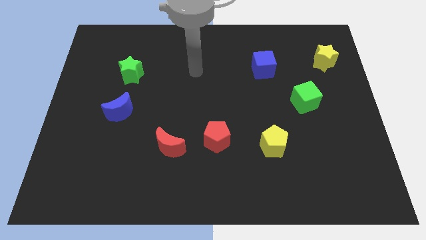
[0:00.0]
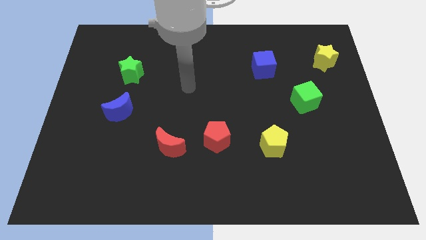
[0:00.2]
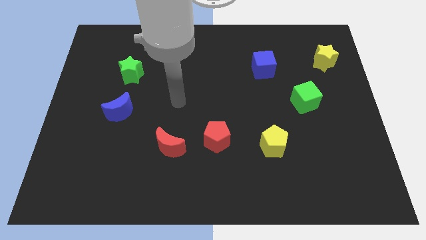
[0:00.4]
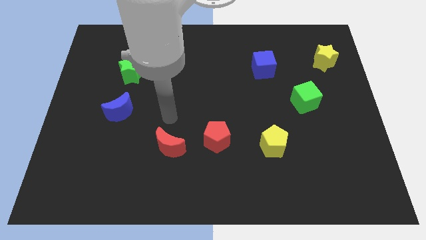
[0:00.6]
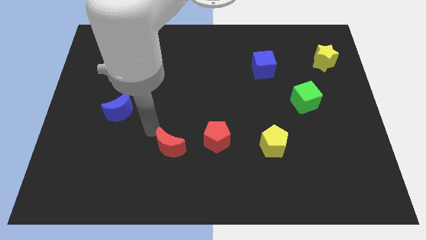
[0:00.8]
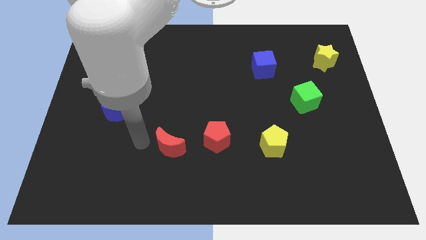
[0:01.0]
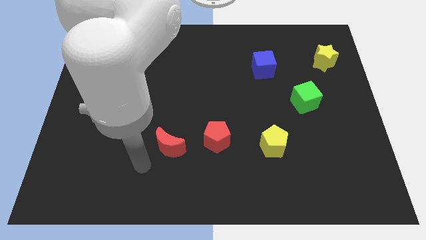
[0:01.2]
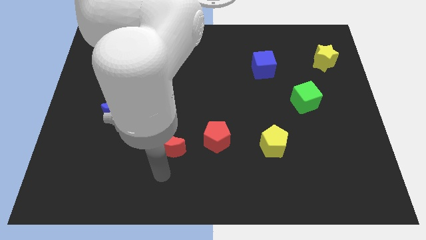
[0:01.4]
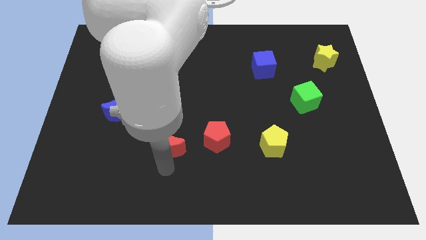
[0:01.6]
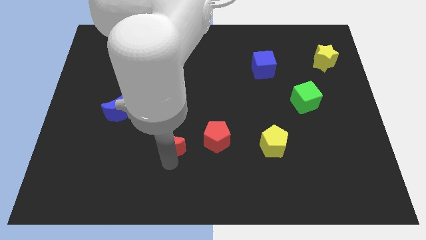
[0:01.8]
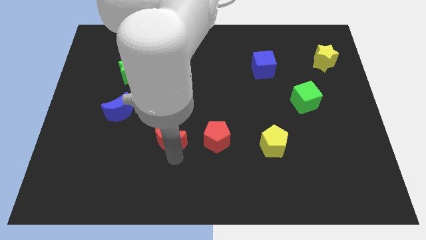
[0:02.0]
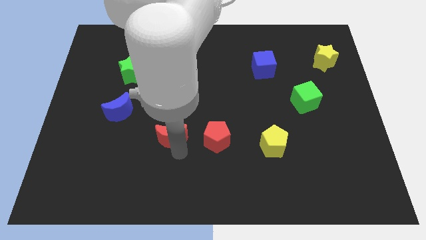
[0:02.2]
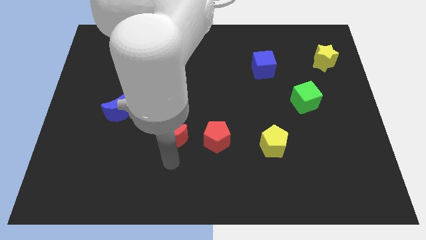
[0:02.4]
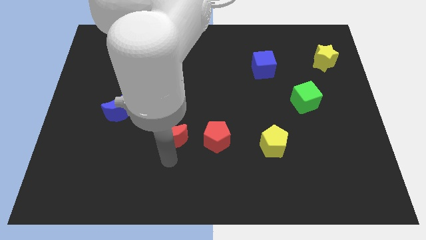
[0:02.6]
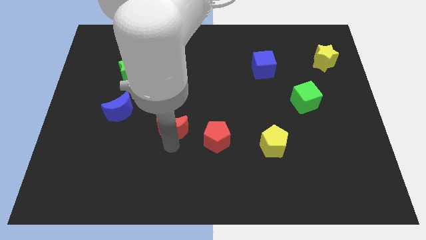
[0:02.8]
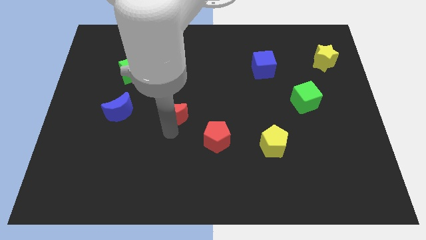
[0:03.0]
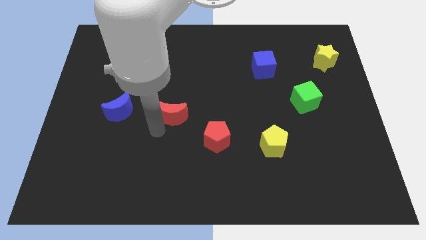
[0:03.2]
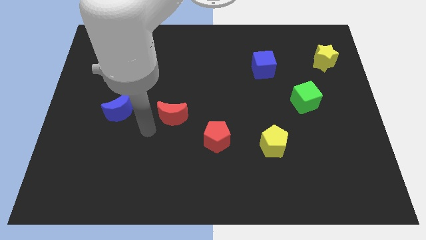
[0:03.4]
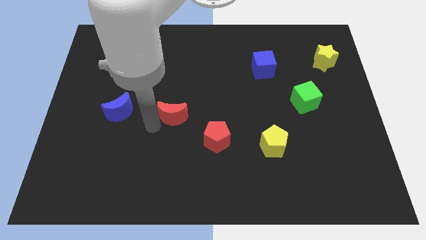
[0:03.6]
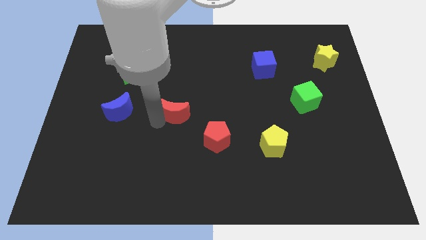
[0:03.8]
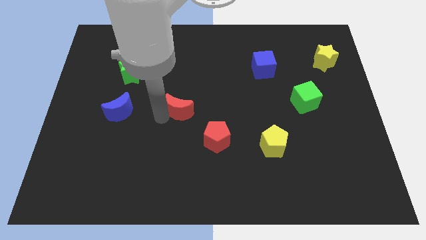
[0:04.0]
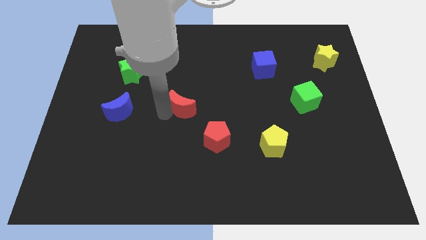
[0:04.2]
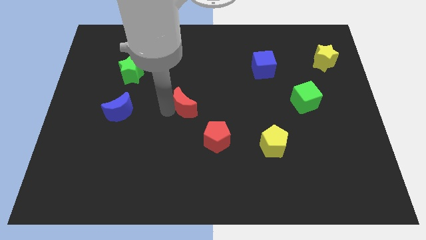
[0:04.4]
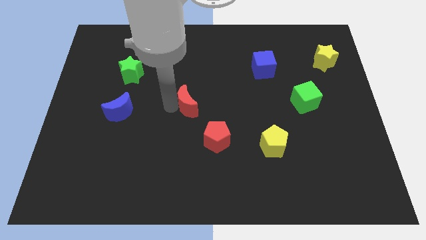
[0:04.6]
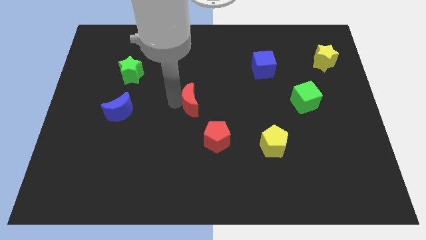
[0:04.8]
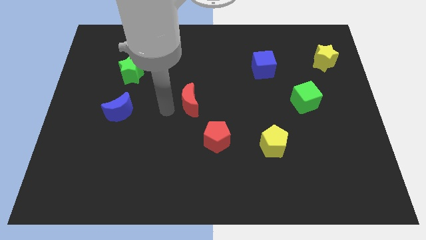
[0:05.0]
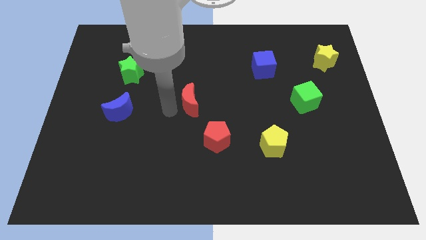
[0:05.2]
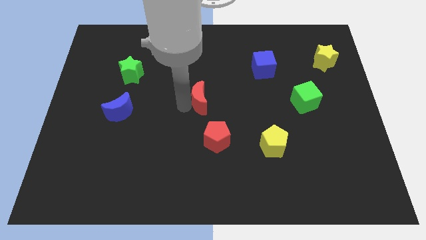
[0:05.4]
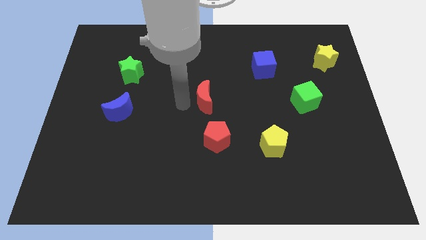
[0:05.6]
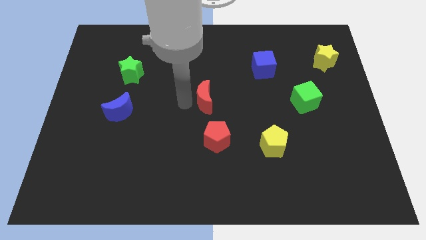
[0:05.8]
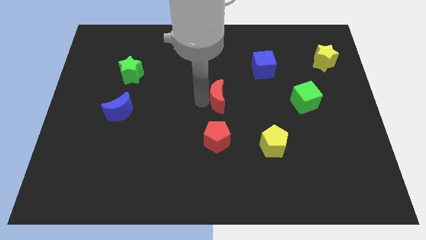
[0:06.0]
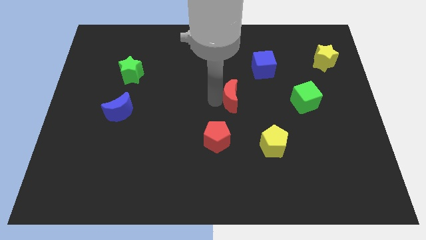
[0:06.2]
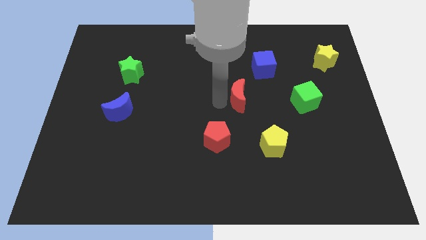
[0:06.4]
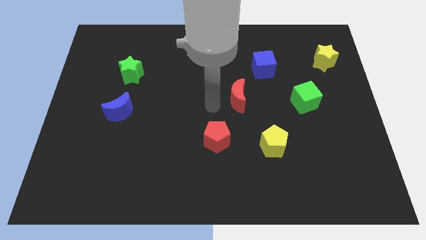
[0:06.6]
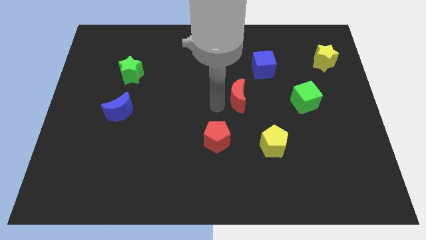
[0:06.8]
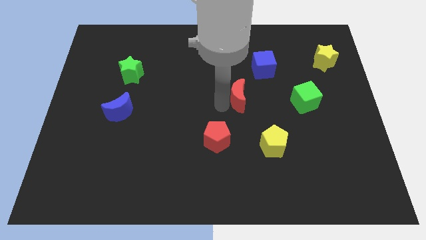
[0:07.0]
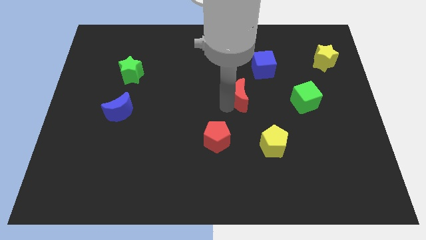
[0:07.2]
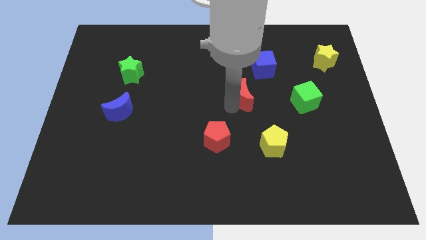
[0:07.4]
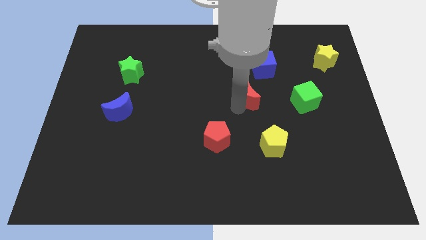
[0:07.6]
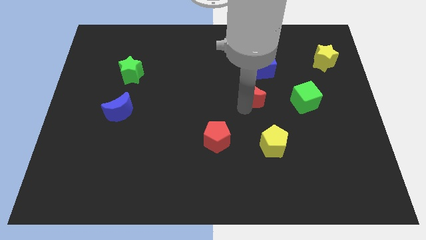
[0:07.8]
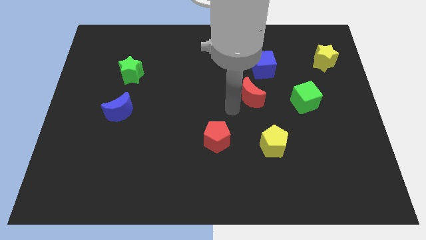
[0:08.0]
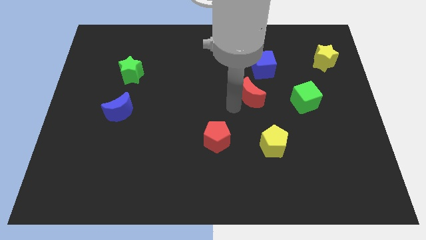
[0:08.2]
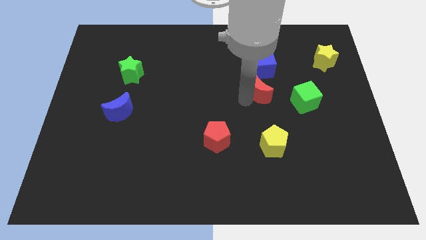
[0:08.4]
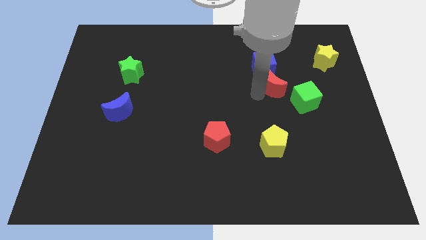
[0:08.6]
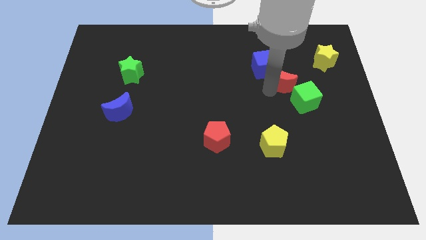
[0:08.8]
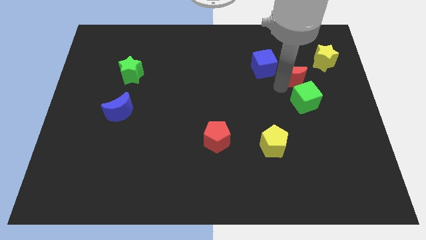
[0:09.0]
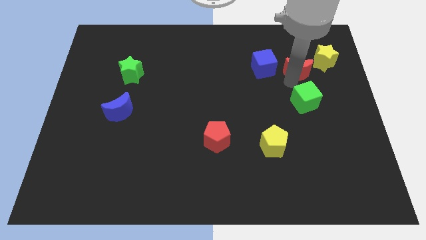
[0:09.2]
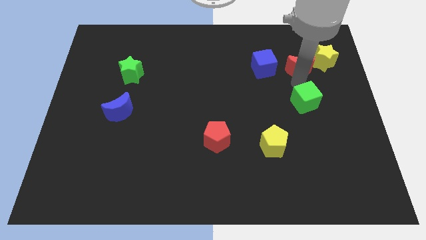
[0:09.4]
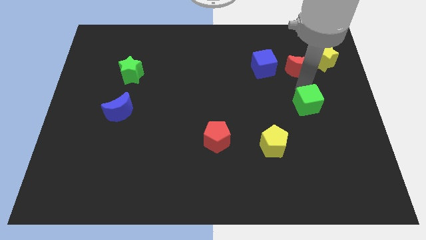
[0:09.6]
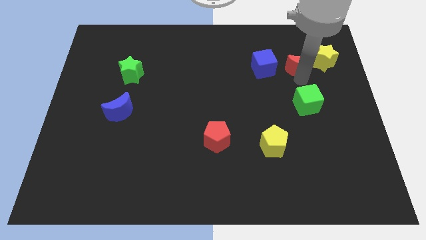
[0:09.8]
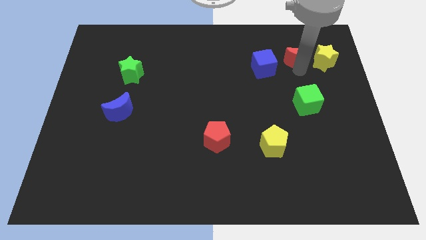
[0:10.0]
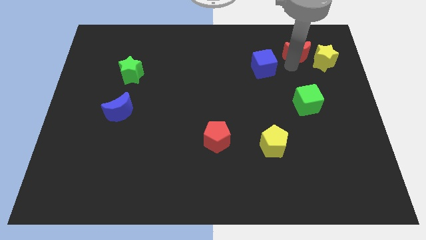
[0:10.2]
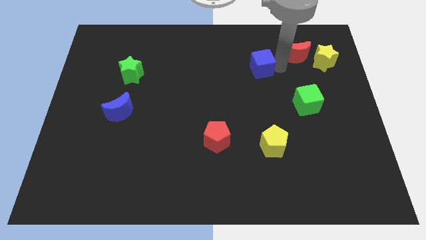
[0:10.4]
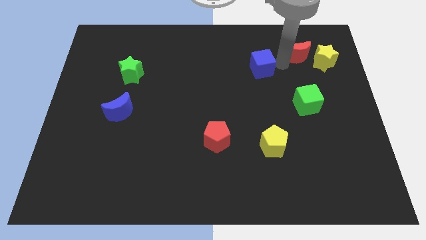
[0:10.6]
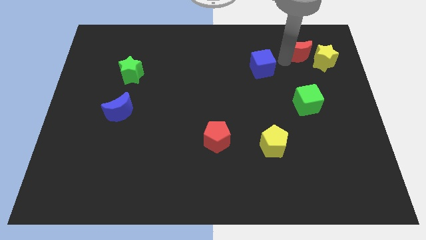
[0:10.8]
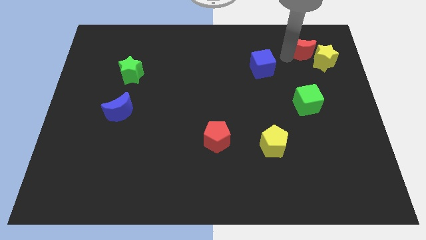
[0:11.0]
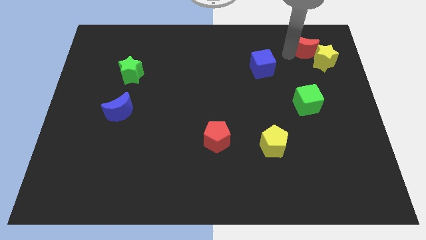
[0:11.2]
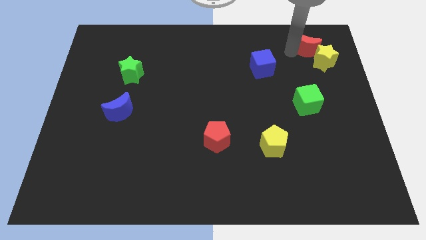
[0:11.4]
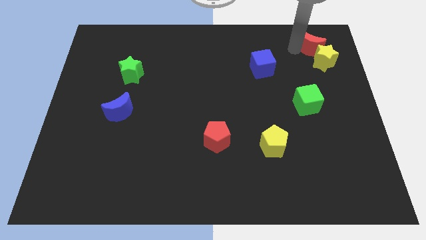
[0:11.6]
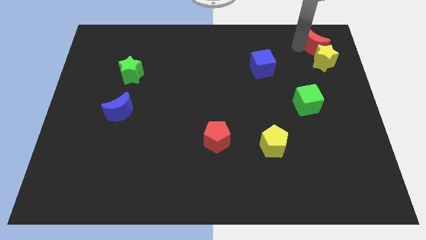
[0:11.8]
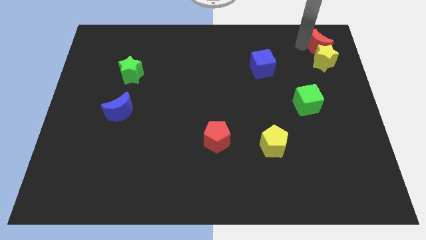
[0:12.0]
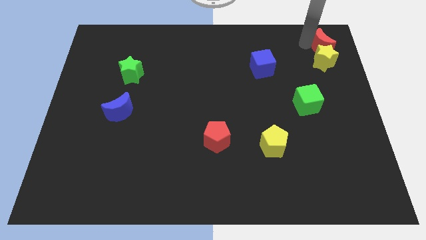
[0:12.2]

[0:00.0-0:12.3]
slide the red moon to the top right corner

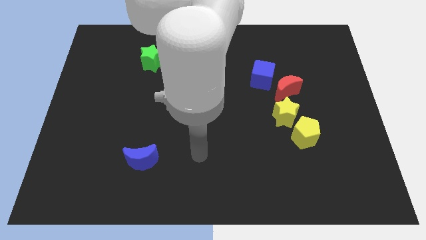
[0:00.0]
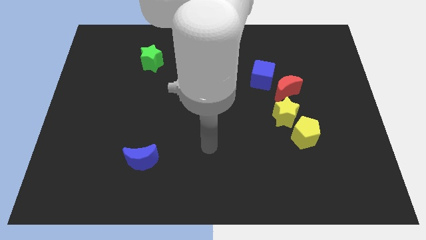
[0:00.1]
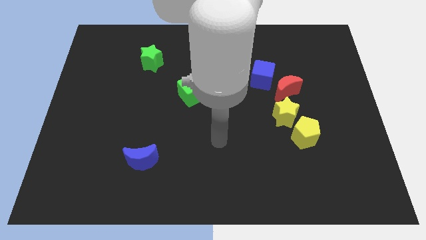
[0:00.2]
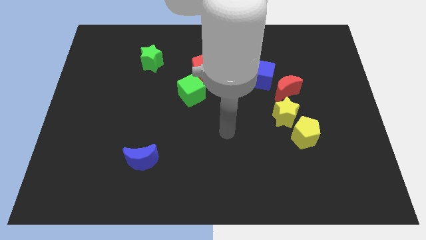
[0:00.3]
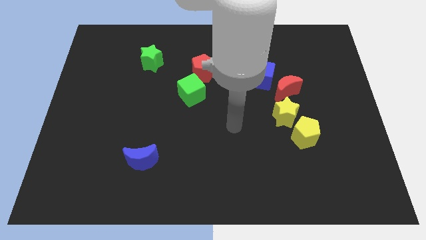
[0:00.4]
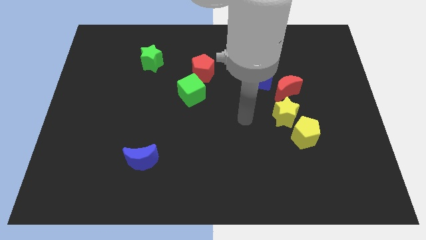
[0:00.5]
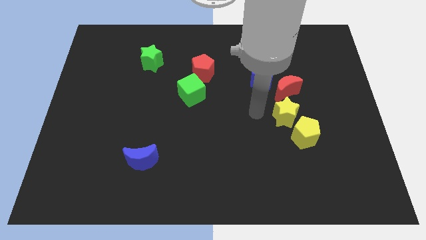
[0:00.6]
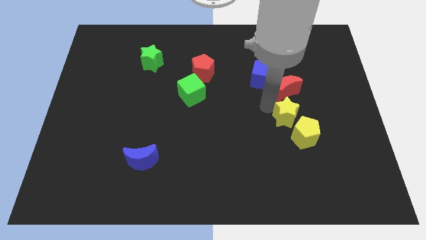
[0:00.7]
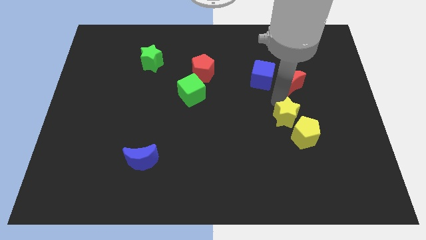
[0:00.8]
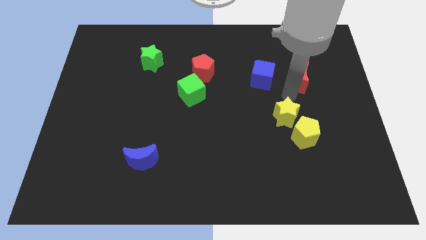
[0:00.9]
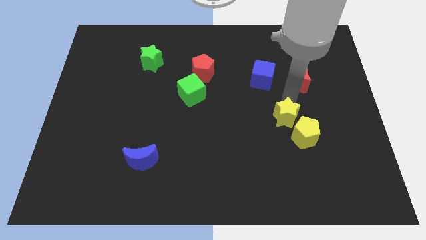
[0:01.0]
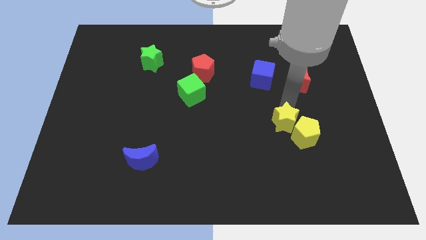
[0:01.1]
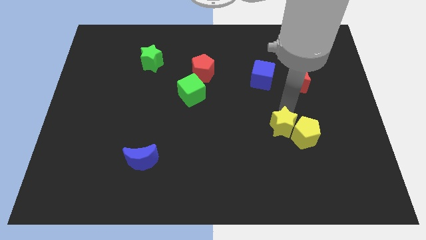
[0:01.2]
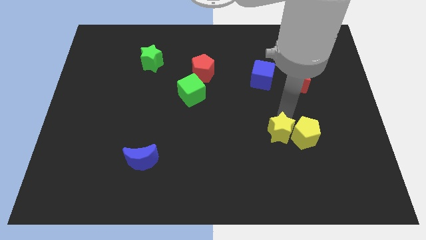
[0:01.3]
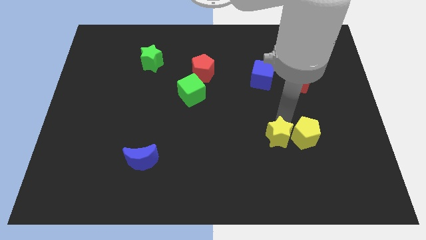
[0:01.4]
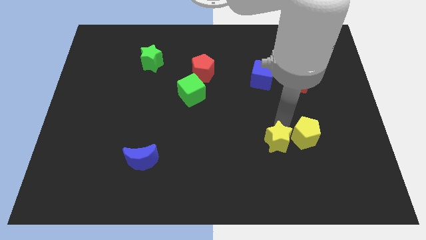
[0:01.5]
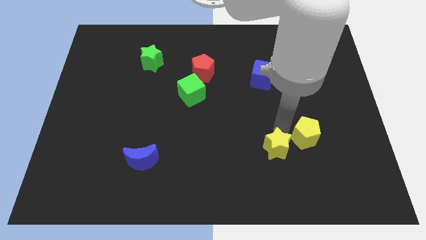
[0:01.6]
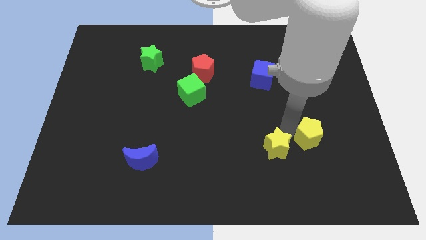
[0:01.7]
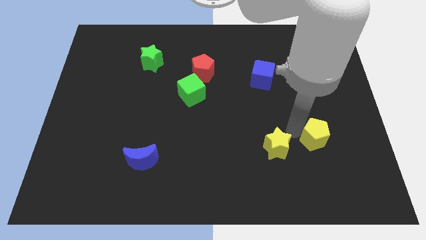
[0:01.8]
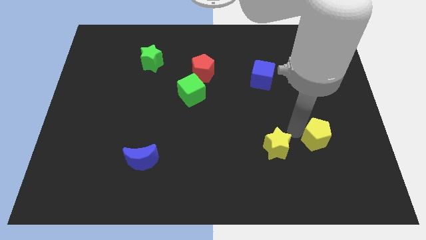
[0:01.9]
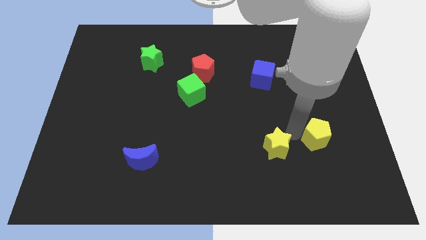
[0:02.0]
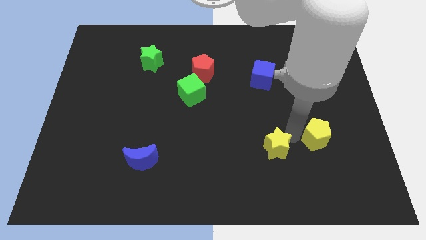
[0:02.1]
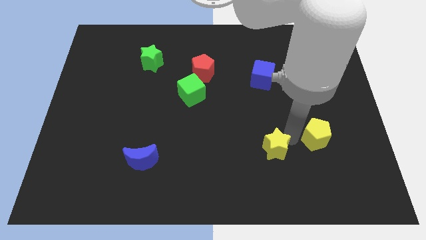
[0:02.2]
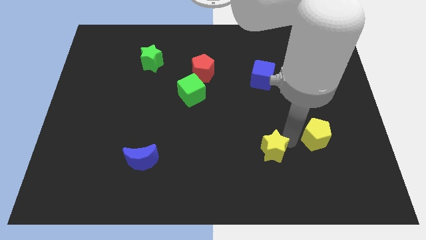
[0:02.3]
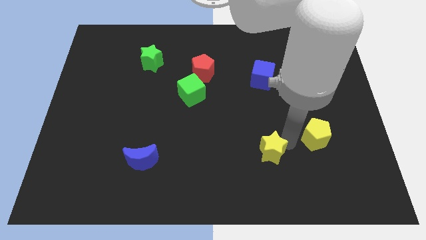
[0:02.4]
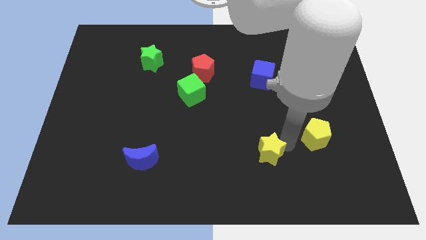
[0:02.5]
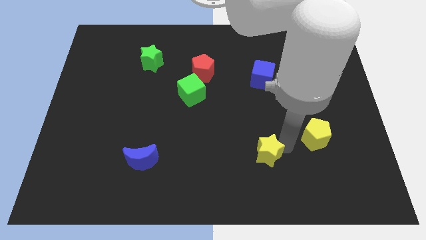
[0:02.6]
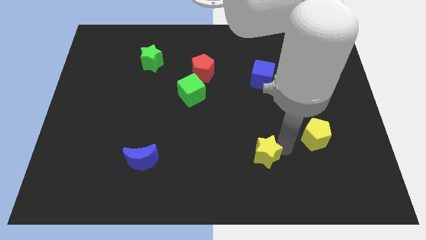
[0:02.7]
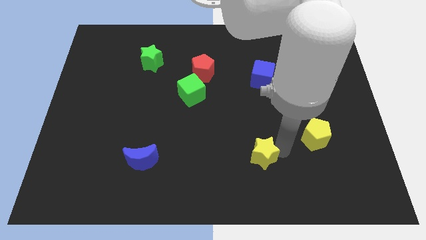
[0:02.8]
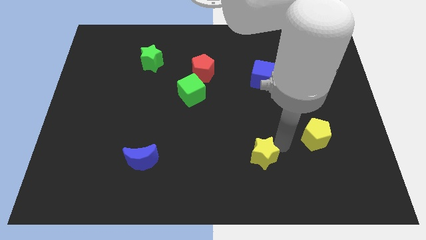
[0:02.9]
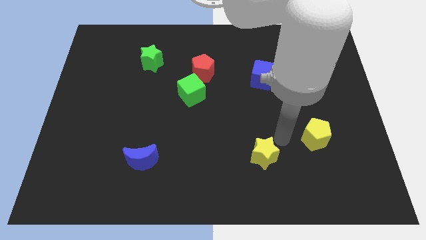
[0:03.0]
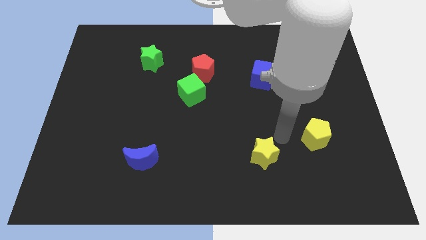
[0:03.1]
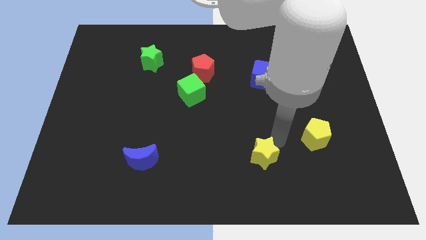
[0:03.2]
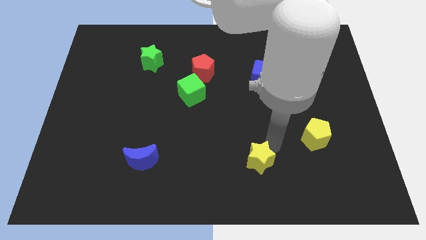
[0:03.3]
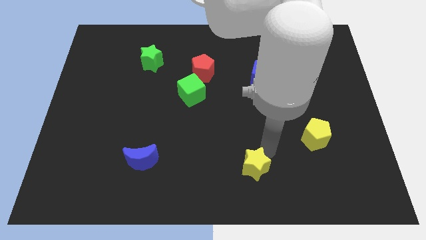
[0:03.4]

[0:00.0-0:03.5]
push the yellow star to the bottom side
